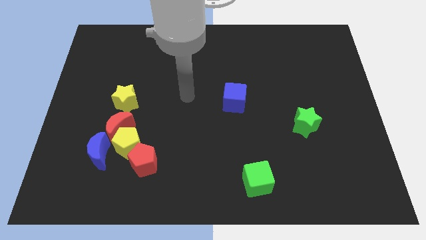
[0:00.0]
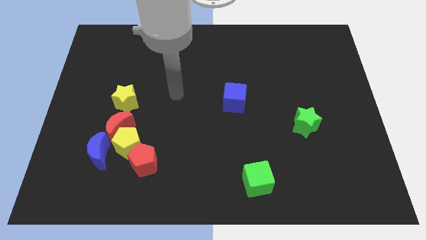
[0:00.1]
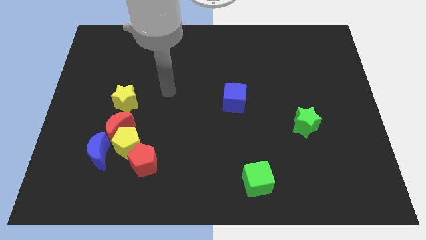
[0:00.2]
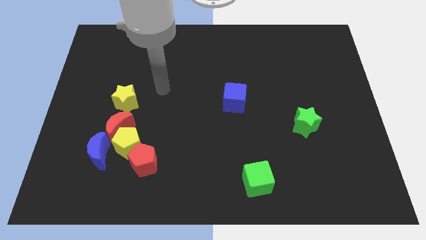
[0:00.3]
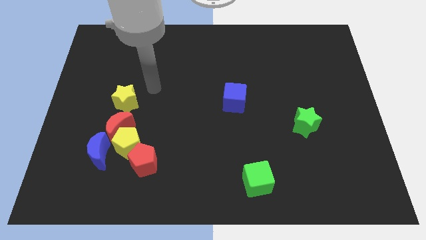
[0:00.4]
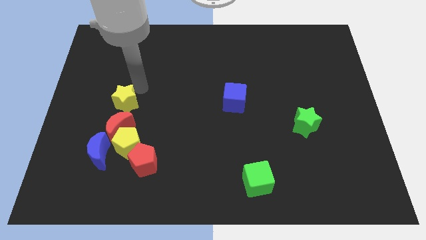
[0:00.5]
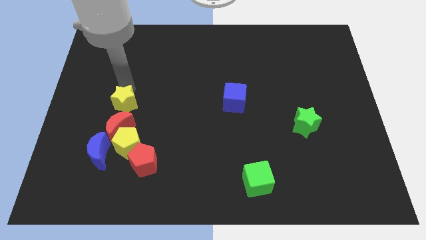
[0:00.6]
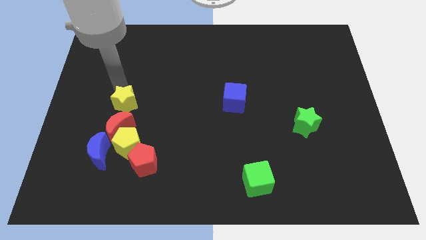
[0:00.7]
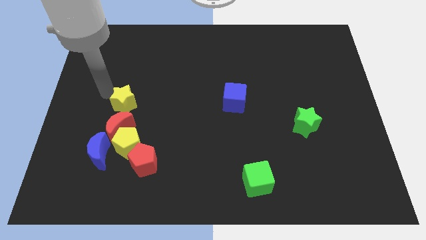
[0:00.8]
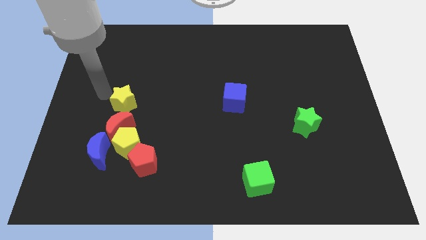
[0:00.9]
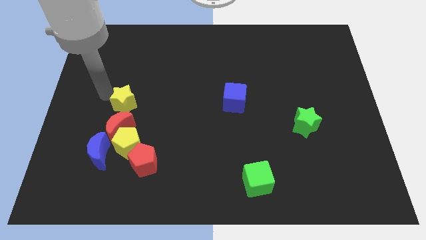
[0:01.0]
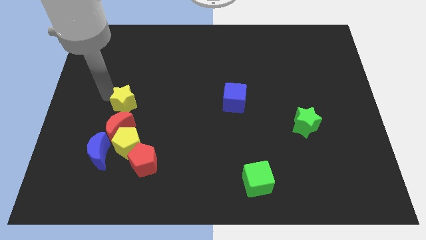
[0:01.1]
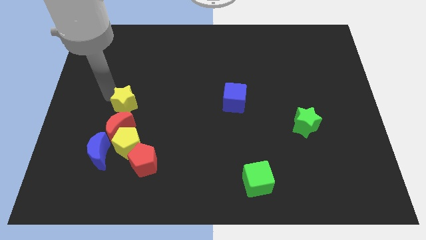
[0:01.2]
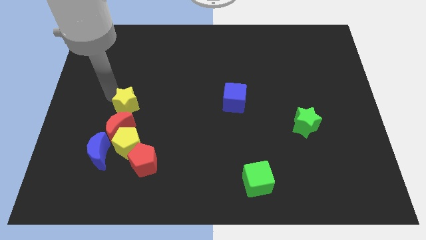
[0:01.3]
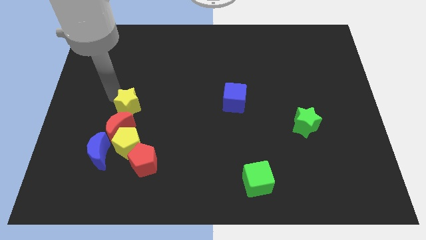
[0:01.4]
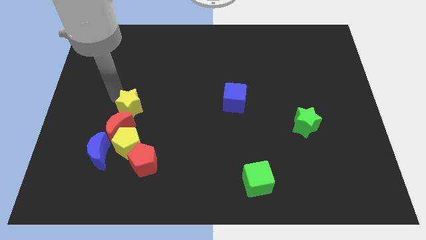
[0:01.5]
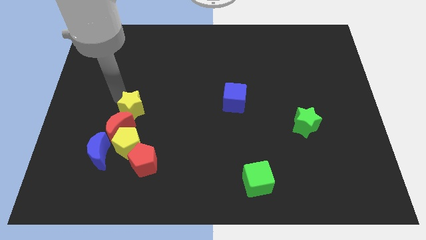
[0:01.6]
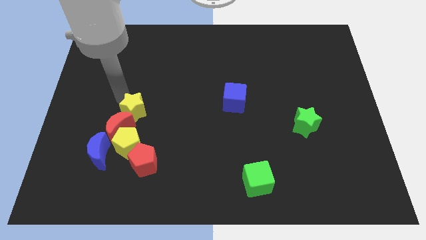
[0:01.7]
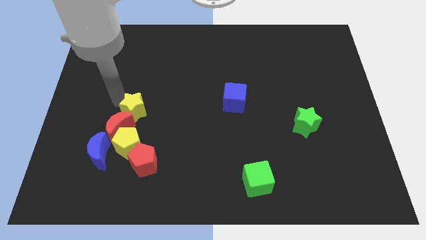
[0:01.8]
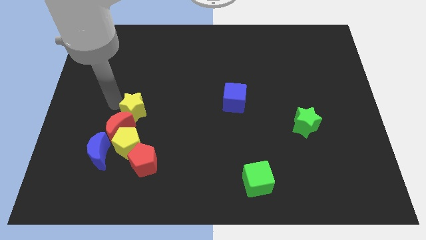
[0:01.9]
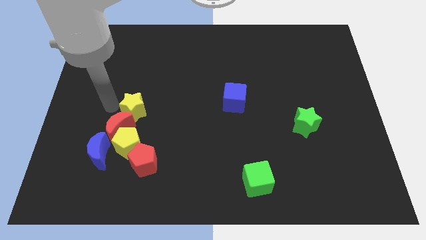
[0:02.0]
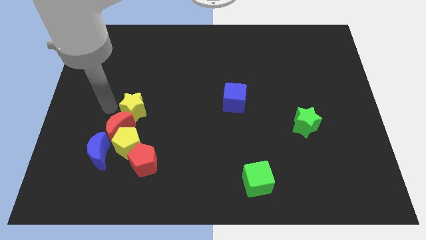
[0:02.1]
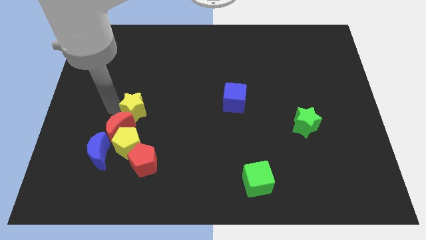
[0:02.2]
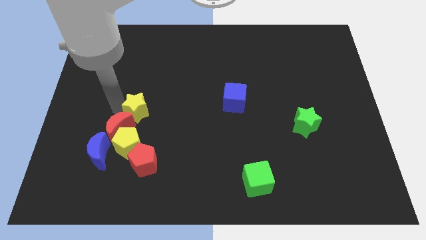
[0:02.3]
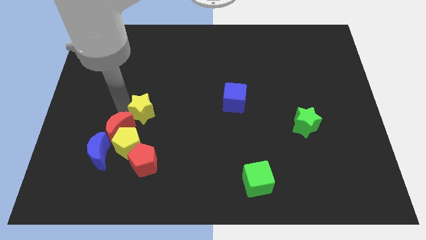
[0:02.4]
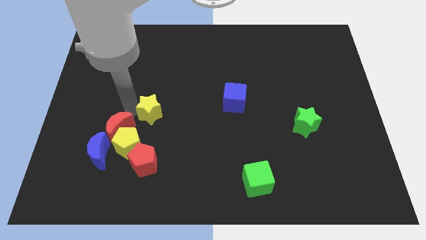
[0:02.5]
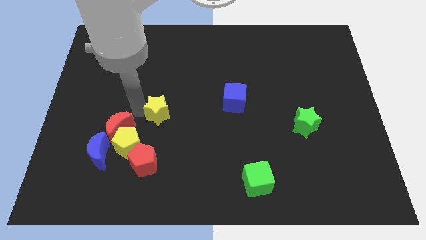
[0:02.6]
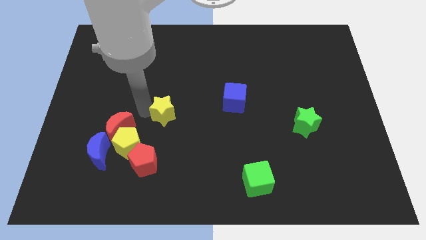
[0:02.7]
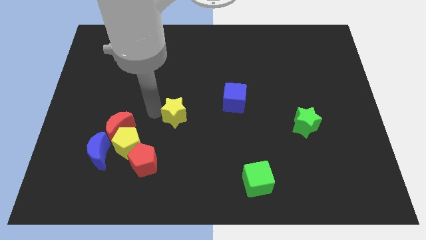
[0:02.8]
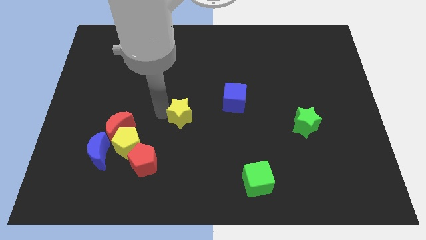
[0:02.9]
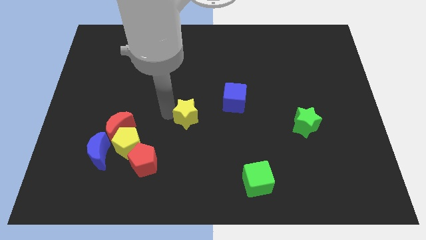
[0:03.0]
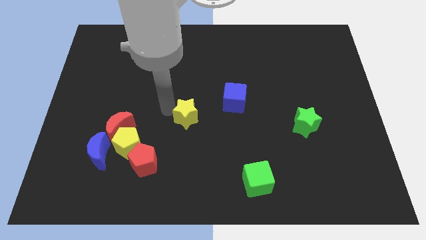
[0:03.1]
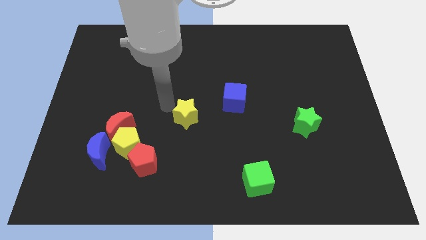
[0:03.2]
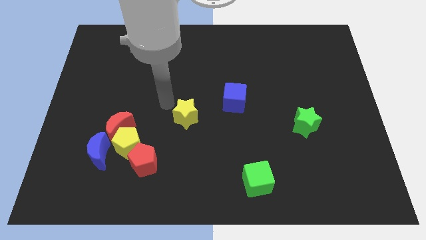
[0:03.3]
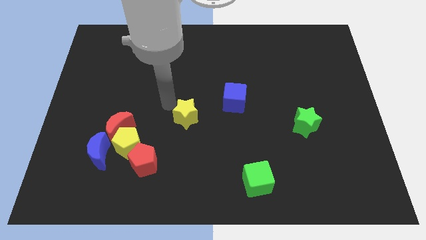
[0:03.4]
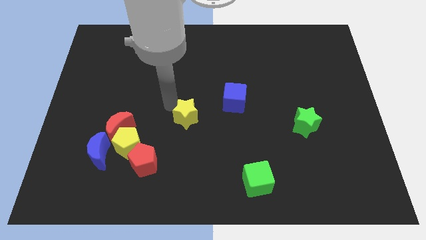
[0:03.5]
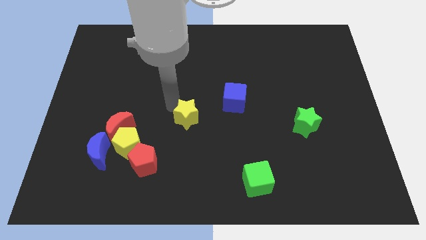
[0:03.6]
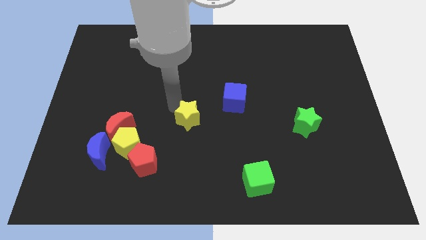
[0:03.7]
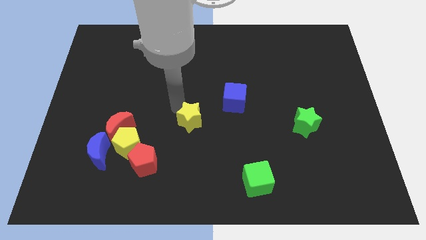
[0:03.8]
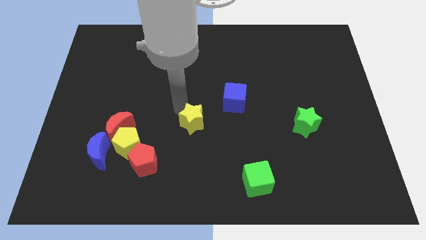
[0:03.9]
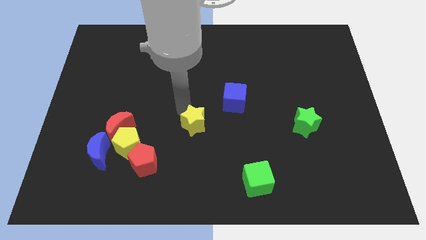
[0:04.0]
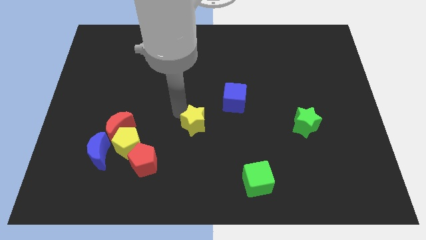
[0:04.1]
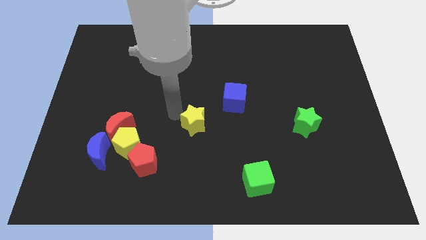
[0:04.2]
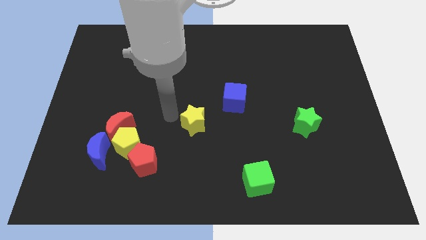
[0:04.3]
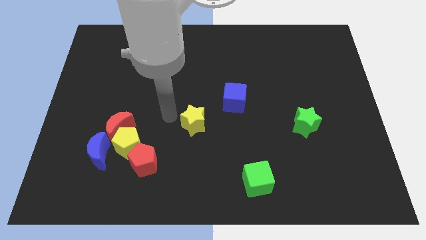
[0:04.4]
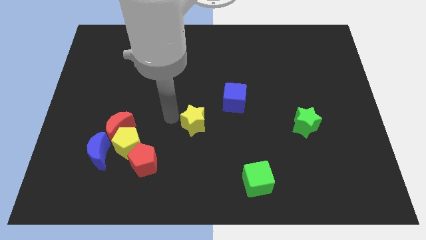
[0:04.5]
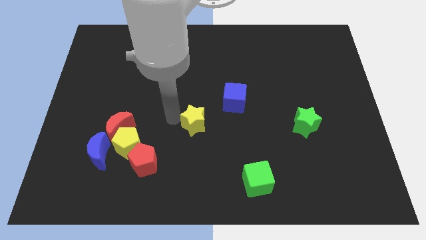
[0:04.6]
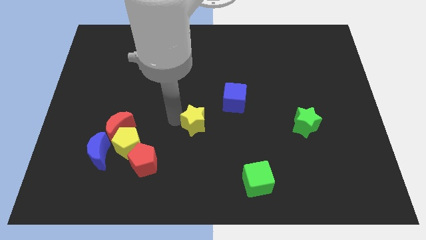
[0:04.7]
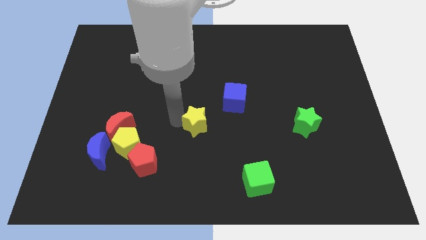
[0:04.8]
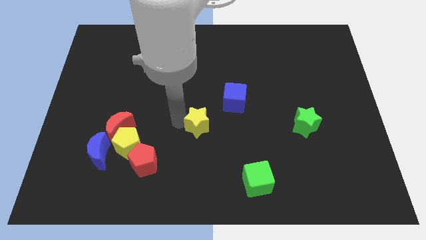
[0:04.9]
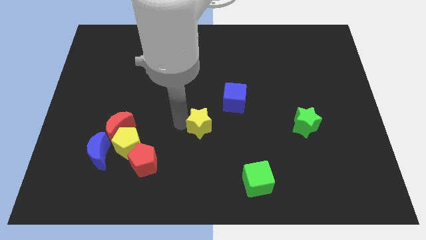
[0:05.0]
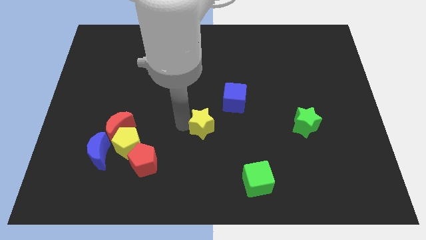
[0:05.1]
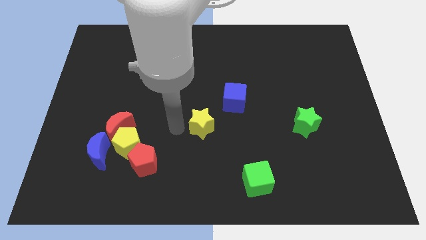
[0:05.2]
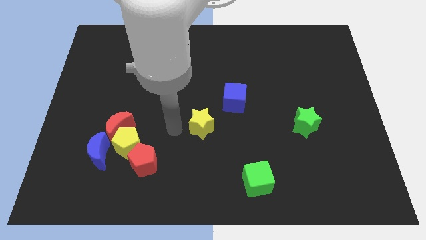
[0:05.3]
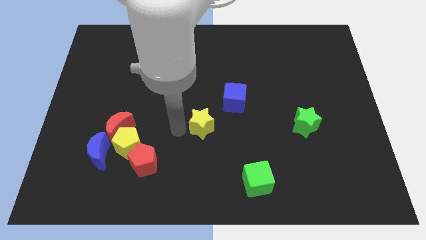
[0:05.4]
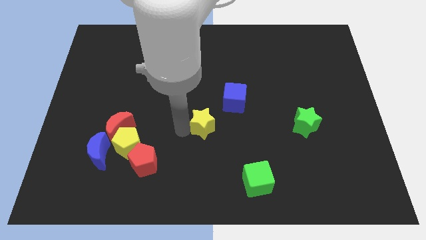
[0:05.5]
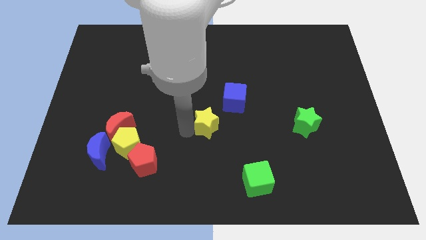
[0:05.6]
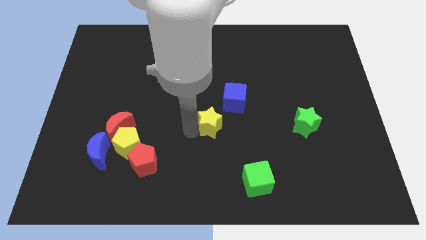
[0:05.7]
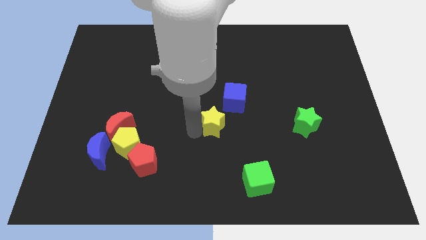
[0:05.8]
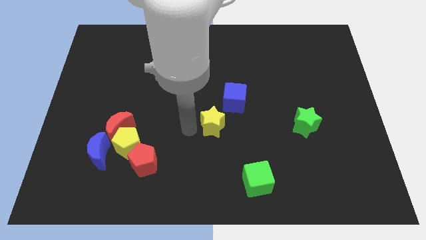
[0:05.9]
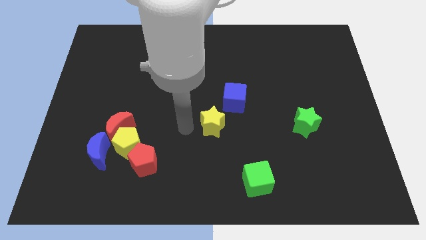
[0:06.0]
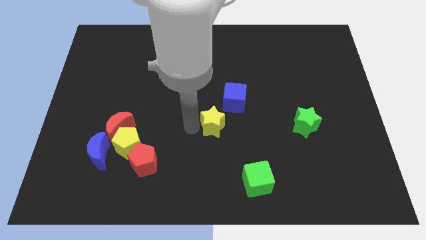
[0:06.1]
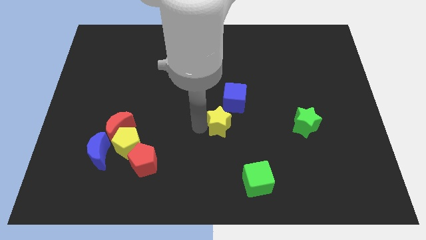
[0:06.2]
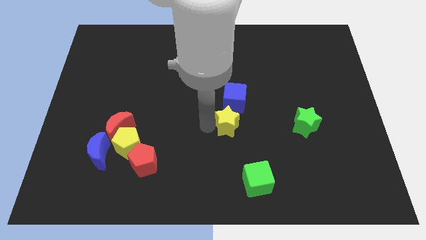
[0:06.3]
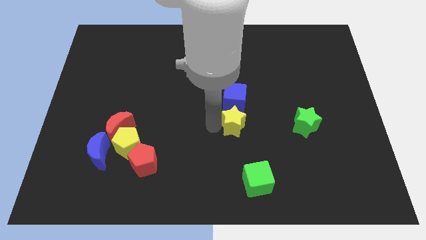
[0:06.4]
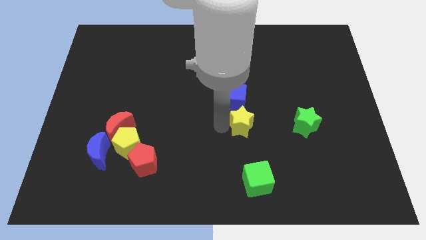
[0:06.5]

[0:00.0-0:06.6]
slide the yellow star to the bottom right side of the blue cube

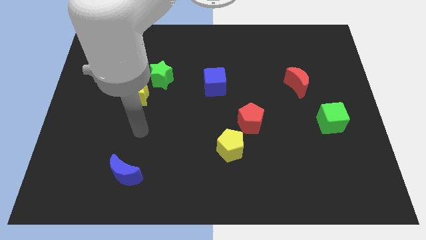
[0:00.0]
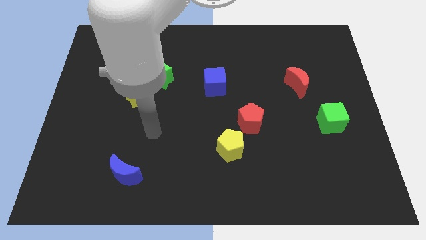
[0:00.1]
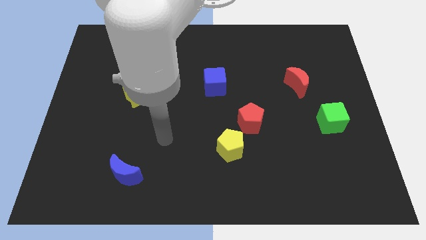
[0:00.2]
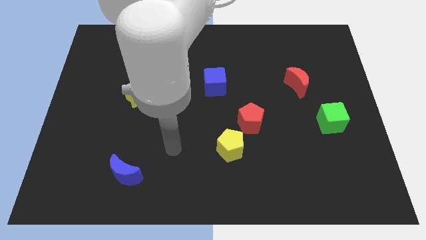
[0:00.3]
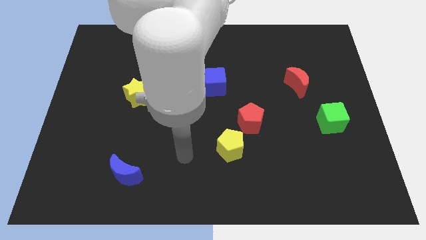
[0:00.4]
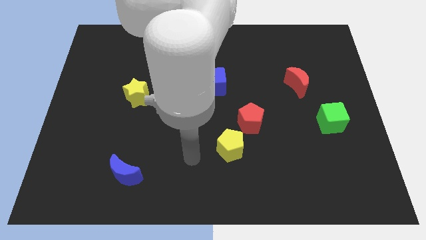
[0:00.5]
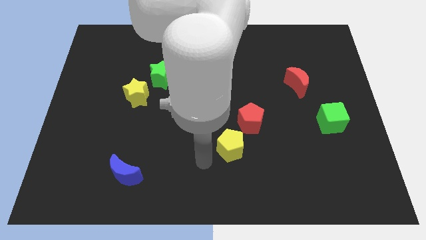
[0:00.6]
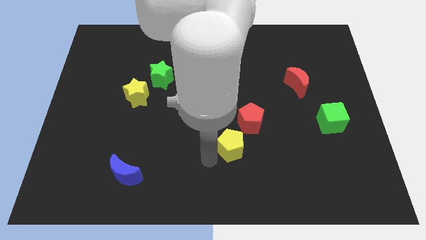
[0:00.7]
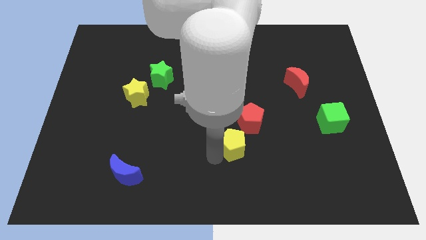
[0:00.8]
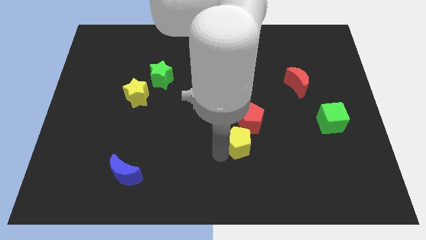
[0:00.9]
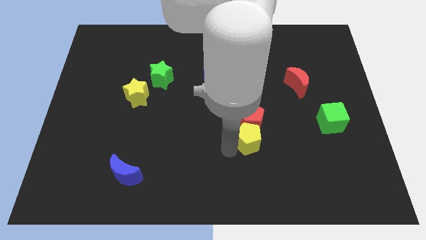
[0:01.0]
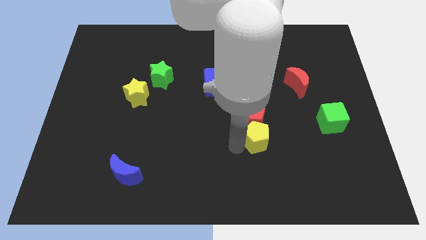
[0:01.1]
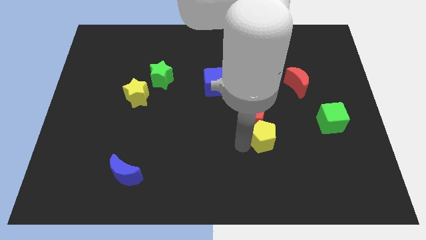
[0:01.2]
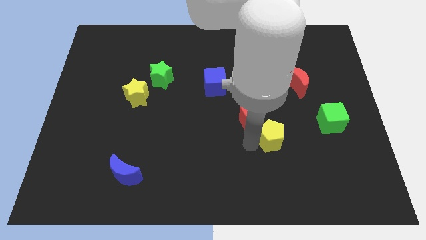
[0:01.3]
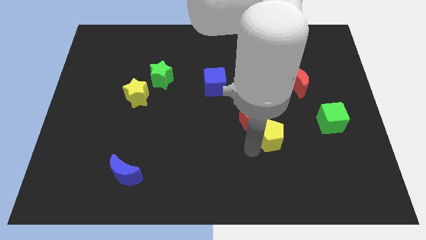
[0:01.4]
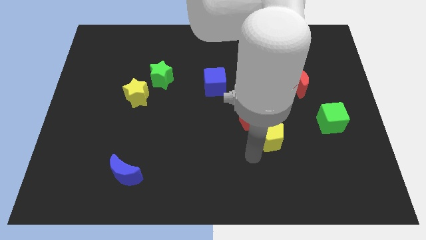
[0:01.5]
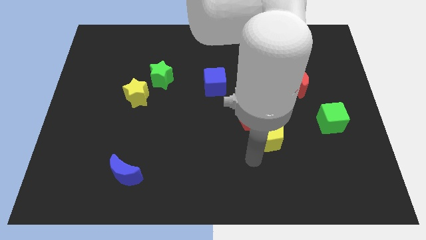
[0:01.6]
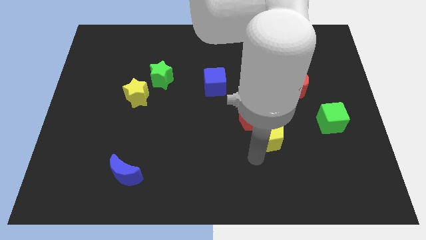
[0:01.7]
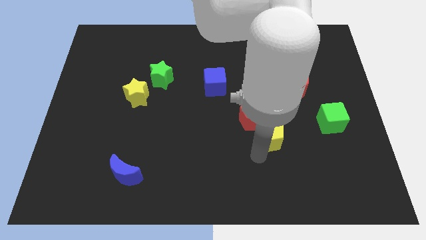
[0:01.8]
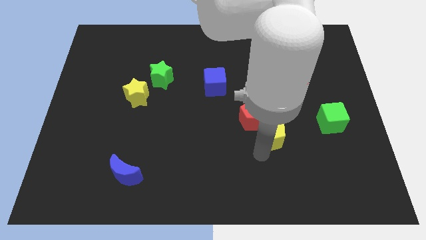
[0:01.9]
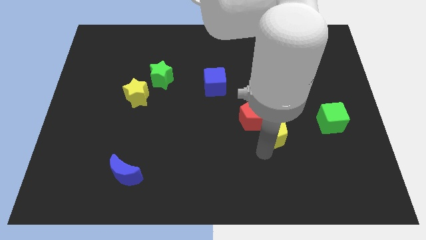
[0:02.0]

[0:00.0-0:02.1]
slide the yellow pentagon left of the green cube
